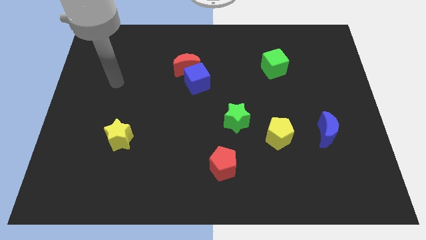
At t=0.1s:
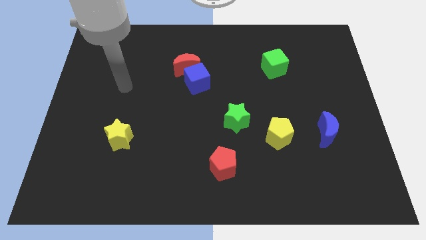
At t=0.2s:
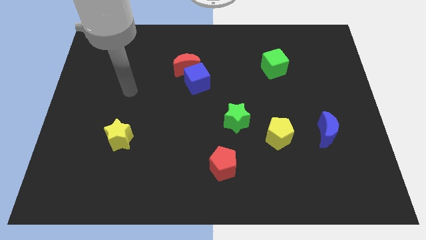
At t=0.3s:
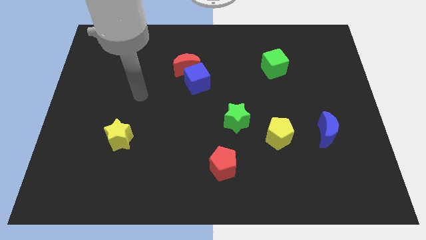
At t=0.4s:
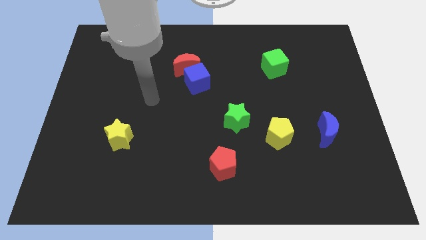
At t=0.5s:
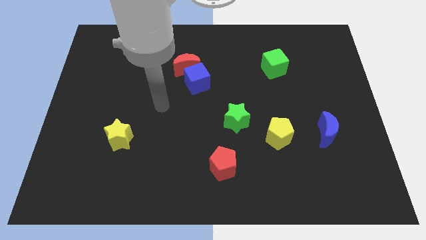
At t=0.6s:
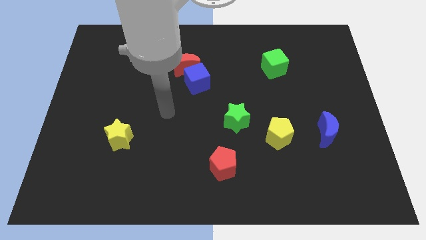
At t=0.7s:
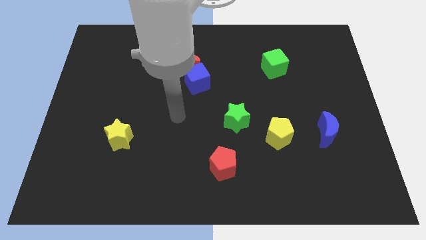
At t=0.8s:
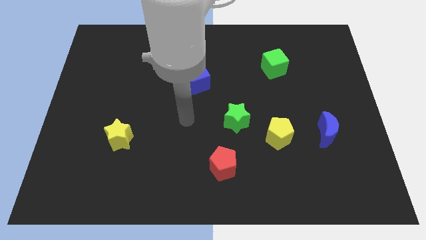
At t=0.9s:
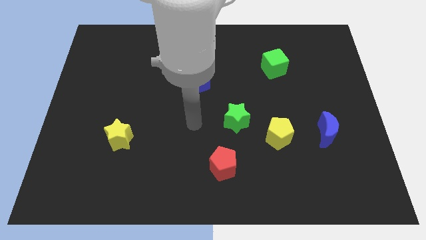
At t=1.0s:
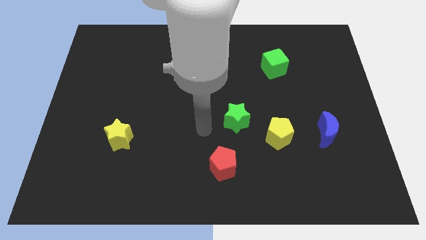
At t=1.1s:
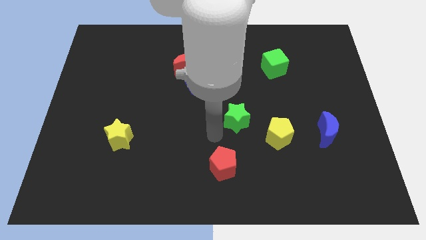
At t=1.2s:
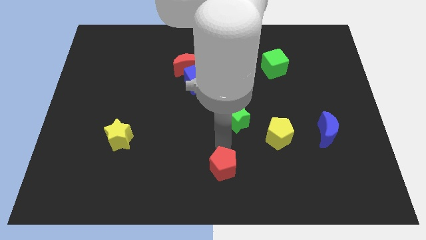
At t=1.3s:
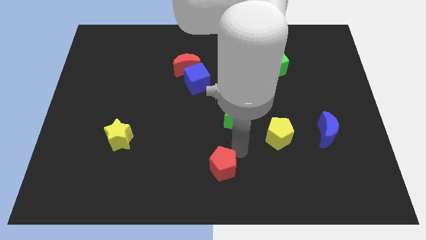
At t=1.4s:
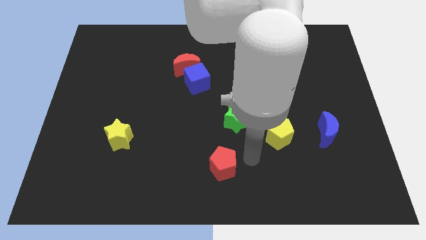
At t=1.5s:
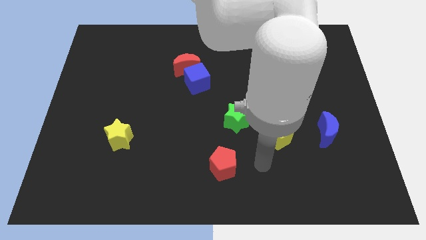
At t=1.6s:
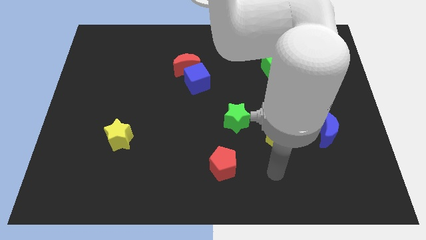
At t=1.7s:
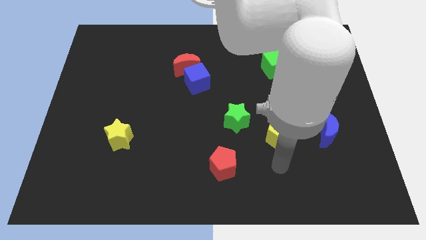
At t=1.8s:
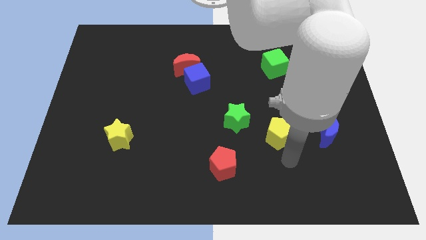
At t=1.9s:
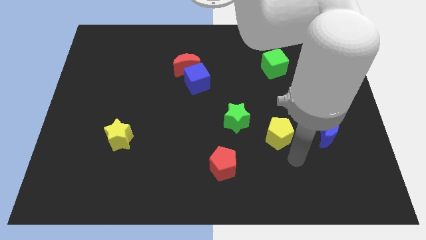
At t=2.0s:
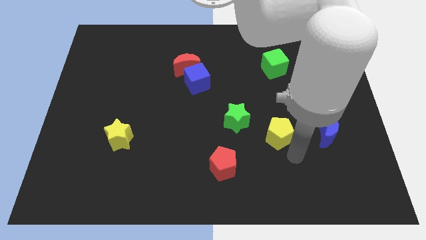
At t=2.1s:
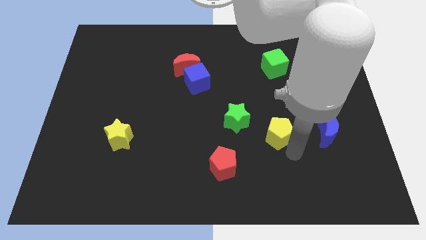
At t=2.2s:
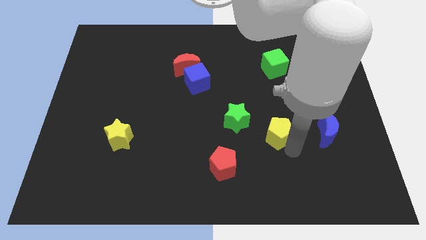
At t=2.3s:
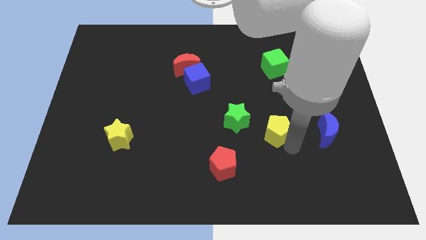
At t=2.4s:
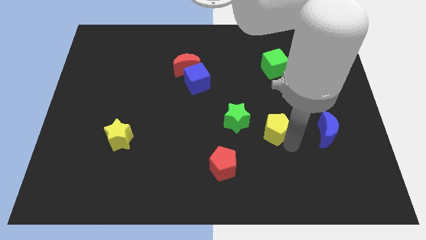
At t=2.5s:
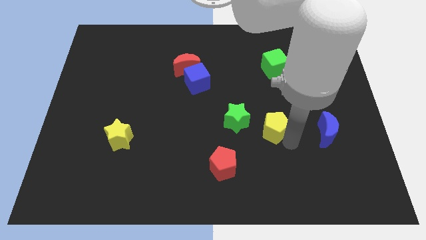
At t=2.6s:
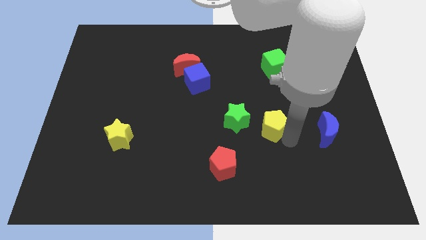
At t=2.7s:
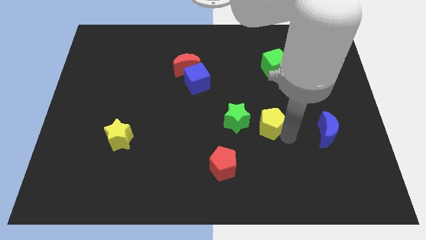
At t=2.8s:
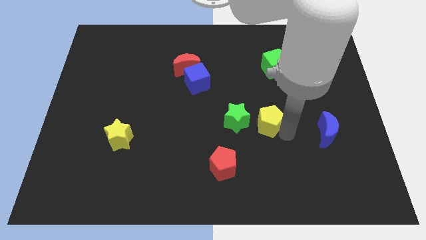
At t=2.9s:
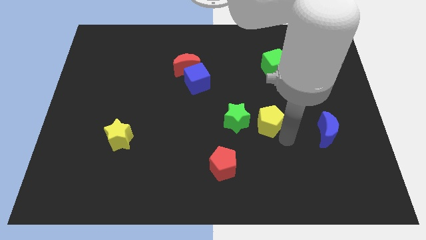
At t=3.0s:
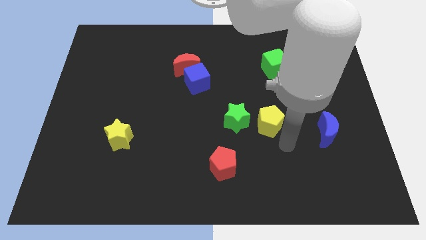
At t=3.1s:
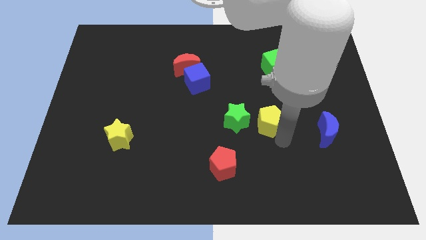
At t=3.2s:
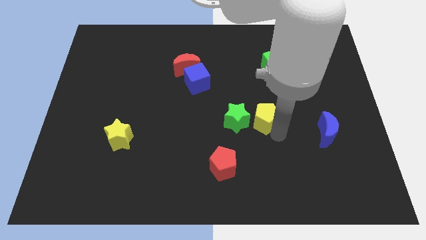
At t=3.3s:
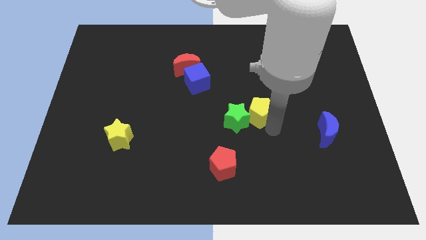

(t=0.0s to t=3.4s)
slide the yellow pentagon upwards and to the left diagonally a little

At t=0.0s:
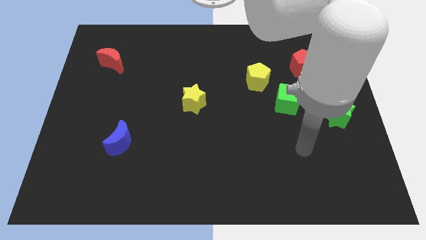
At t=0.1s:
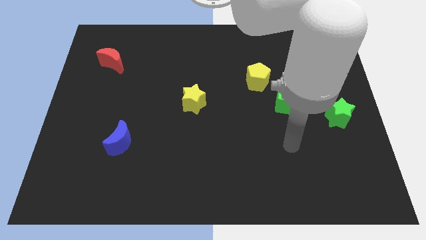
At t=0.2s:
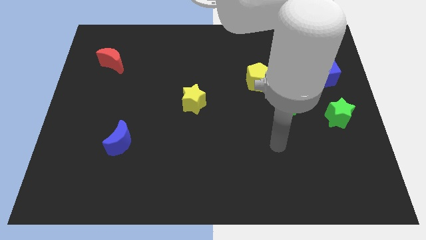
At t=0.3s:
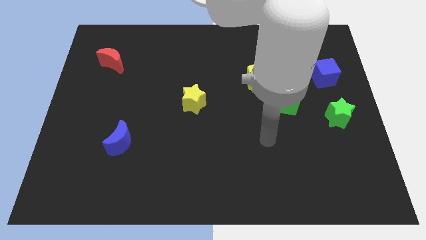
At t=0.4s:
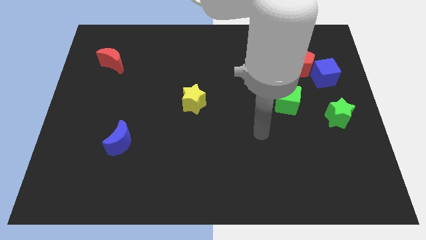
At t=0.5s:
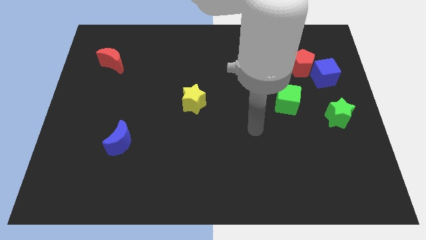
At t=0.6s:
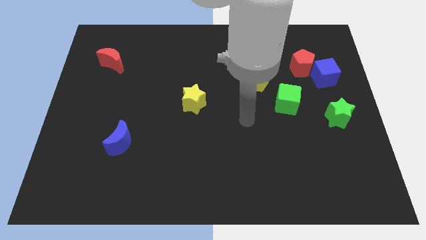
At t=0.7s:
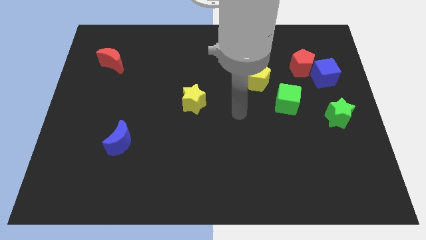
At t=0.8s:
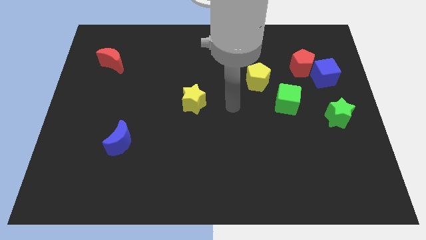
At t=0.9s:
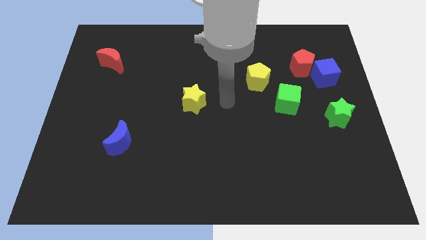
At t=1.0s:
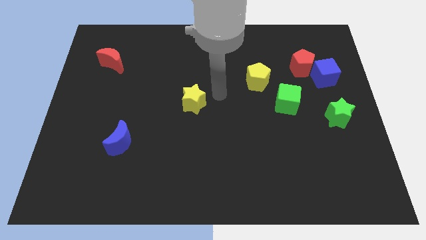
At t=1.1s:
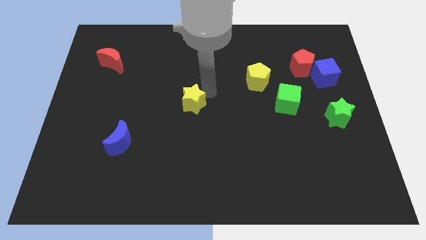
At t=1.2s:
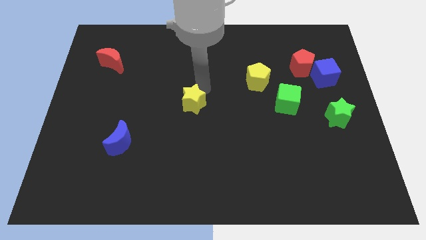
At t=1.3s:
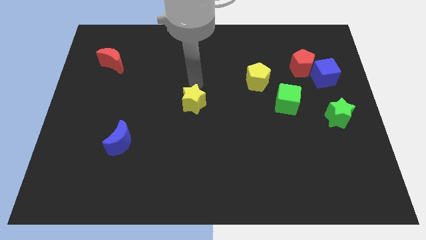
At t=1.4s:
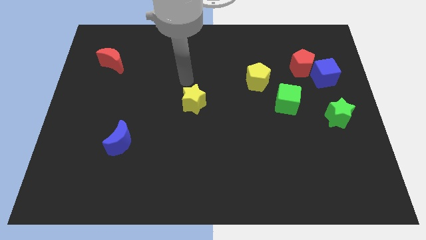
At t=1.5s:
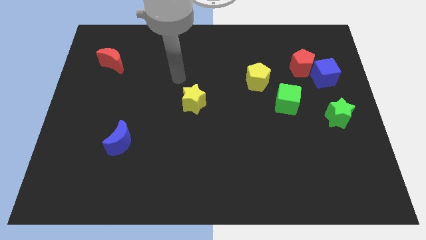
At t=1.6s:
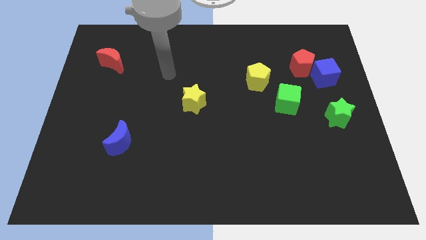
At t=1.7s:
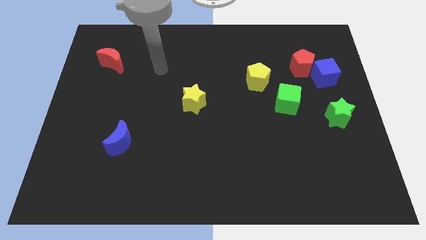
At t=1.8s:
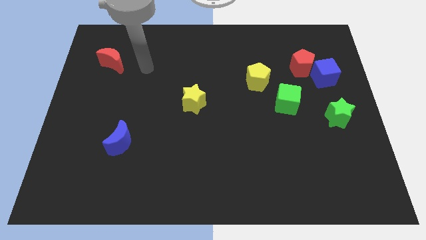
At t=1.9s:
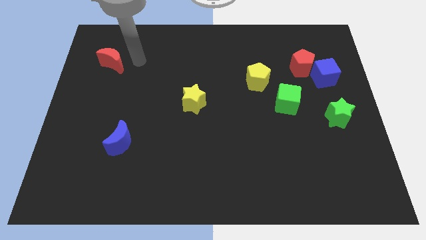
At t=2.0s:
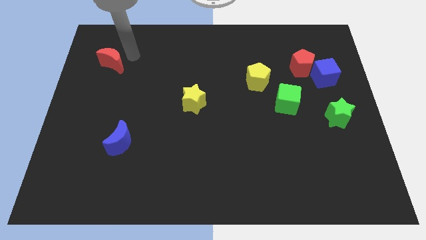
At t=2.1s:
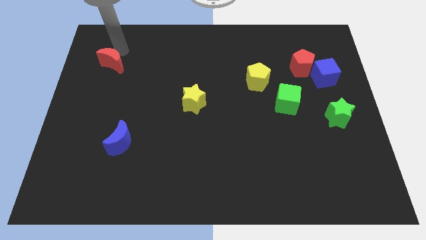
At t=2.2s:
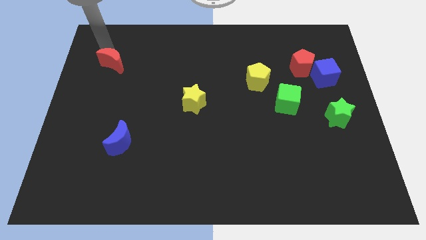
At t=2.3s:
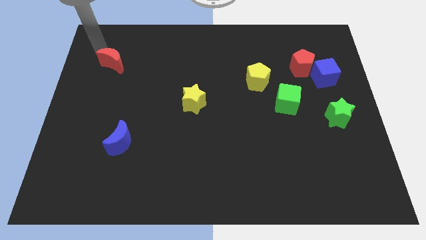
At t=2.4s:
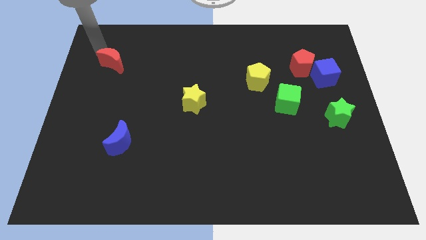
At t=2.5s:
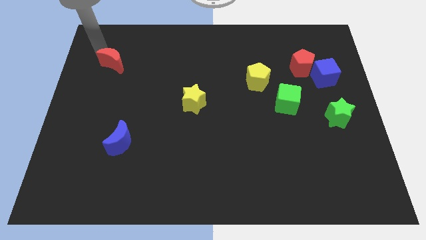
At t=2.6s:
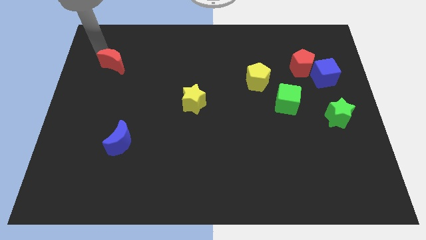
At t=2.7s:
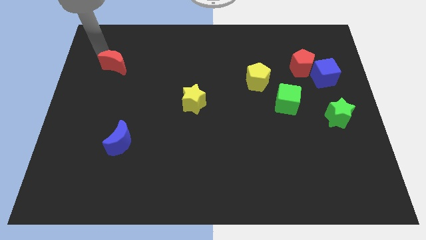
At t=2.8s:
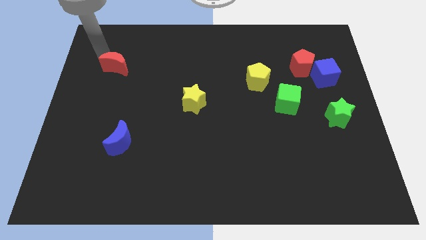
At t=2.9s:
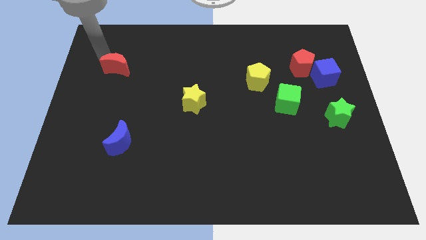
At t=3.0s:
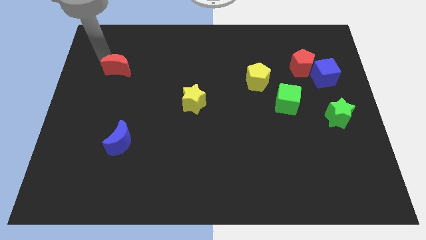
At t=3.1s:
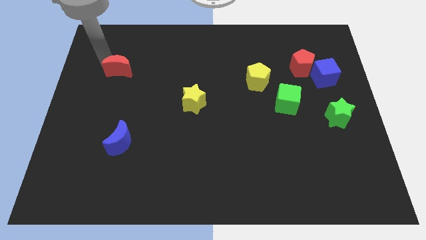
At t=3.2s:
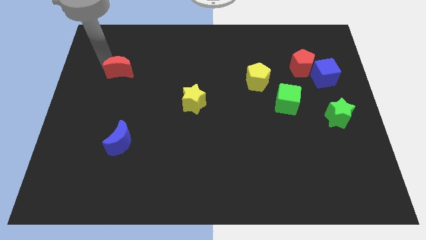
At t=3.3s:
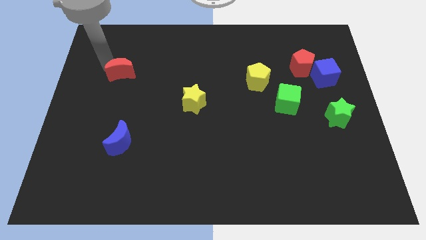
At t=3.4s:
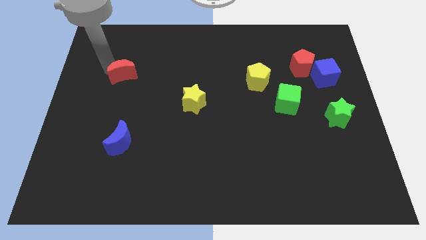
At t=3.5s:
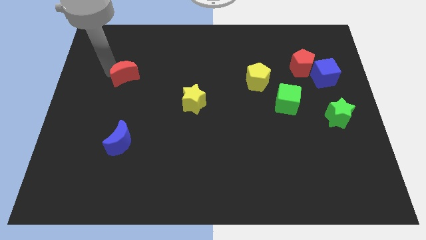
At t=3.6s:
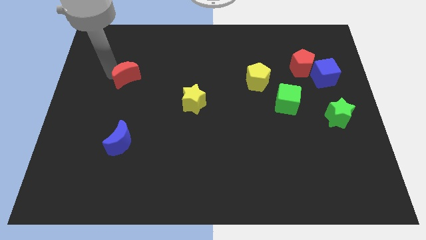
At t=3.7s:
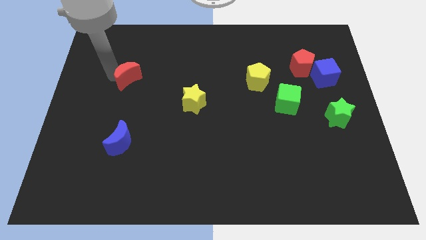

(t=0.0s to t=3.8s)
slightly slide the red moon diagonally down and to the right

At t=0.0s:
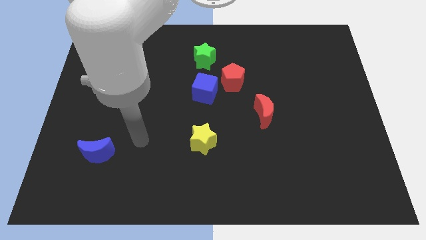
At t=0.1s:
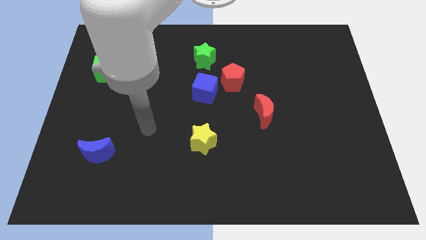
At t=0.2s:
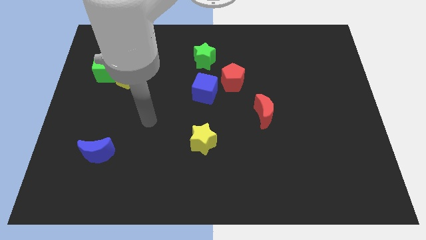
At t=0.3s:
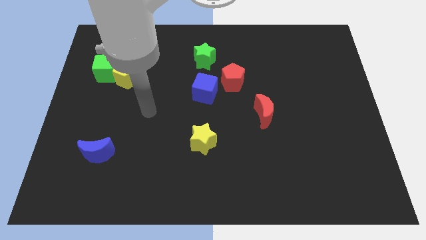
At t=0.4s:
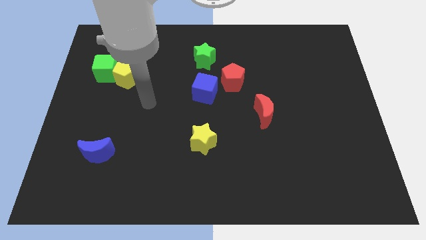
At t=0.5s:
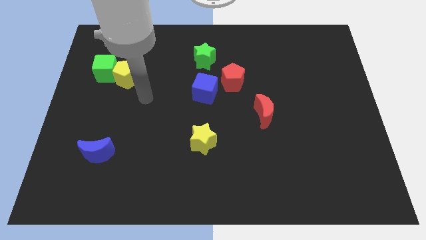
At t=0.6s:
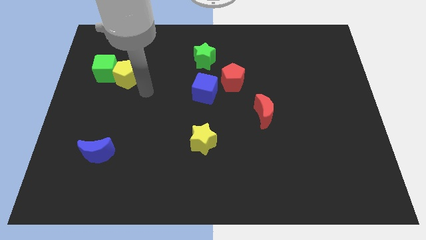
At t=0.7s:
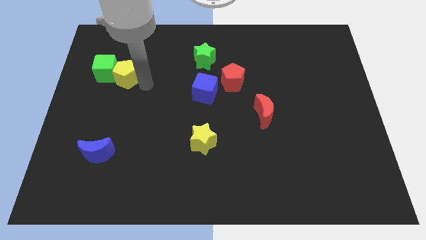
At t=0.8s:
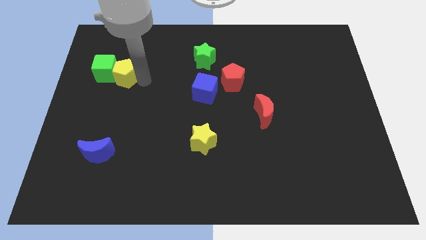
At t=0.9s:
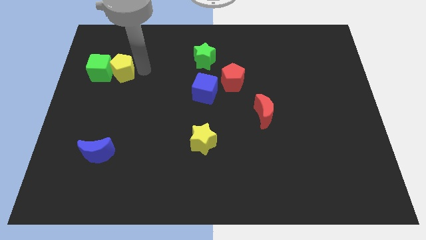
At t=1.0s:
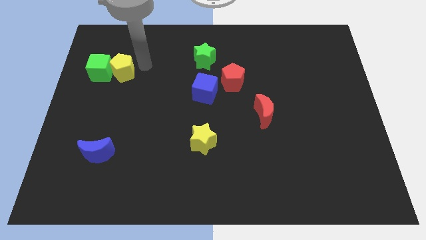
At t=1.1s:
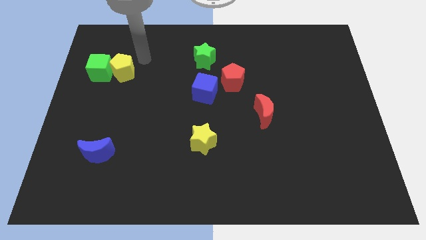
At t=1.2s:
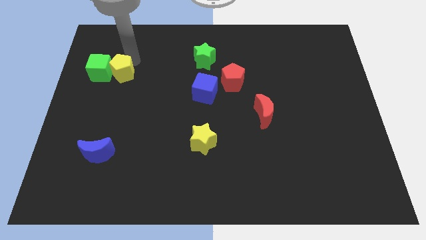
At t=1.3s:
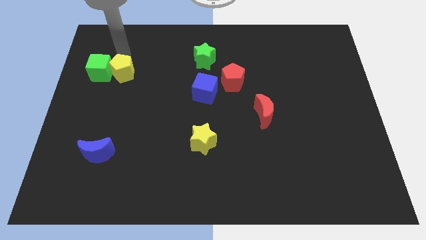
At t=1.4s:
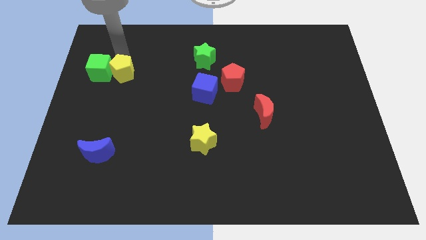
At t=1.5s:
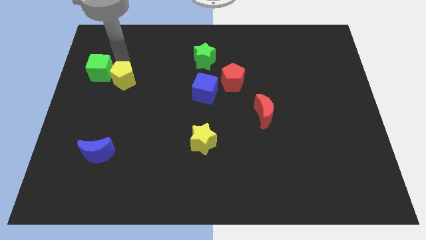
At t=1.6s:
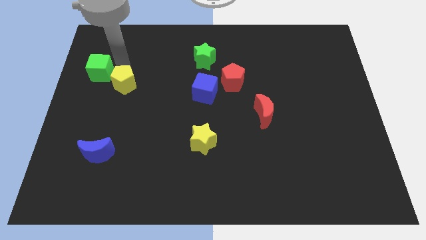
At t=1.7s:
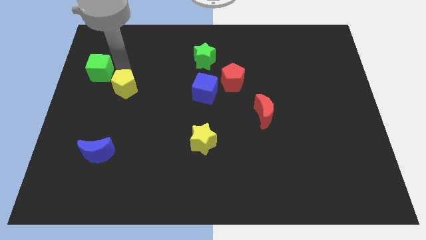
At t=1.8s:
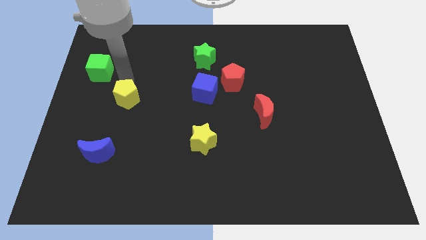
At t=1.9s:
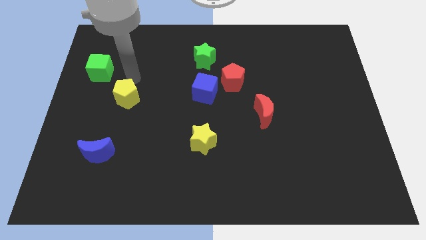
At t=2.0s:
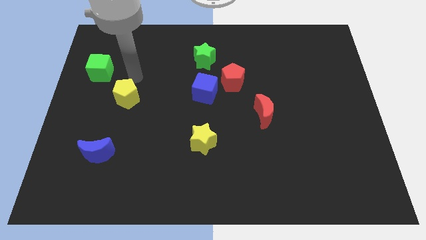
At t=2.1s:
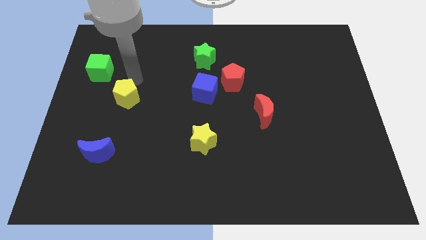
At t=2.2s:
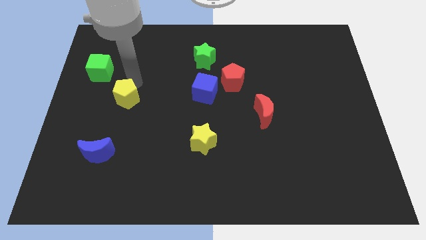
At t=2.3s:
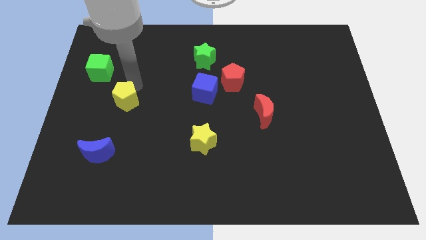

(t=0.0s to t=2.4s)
push the yellow pentagon down a bit
